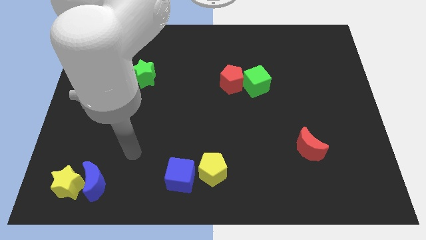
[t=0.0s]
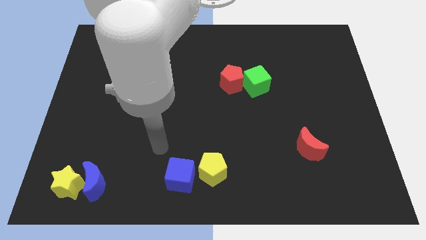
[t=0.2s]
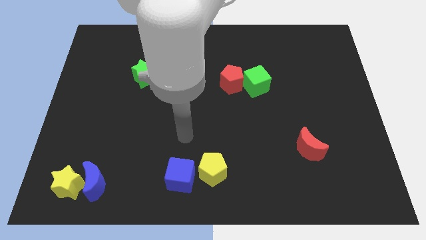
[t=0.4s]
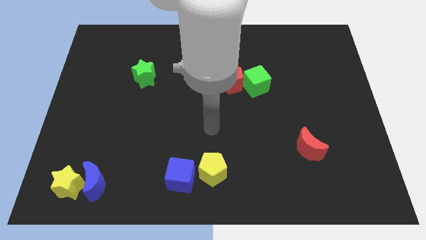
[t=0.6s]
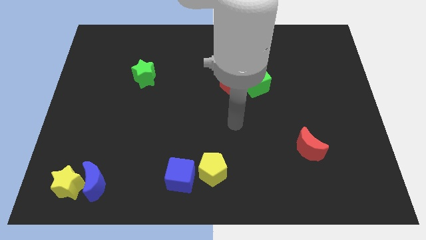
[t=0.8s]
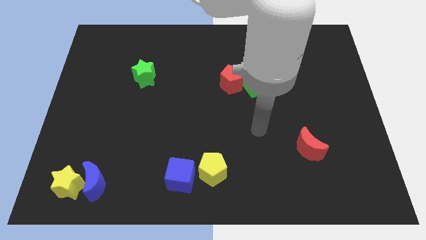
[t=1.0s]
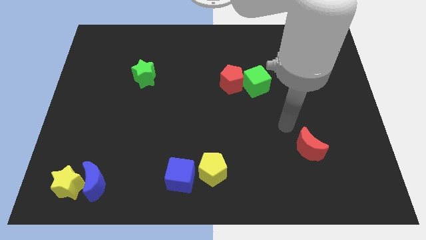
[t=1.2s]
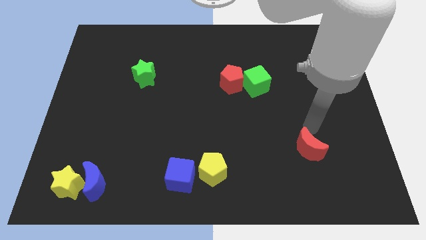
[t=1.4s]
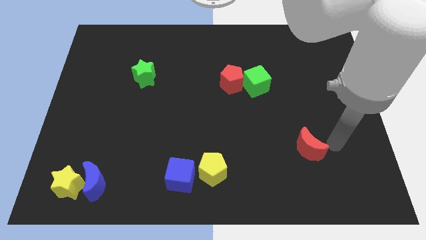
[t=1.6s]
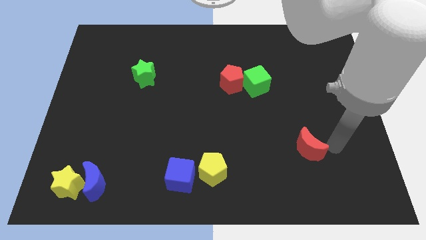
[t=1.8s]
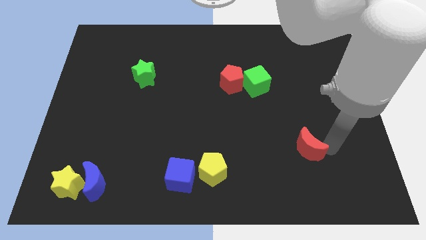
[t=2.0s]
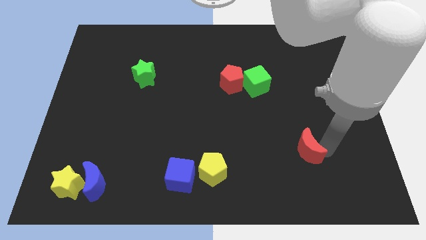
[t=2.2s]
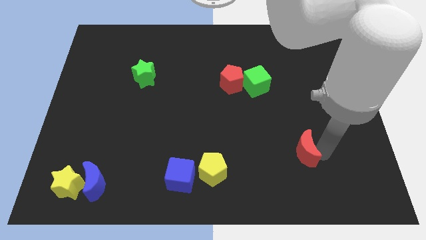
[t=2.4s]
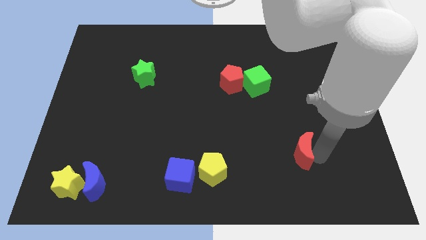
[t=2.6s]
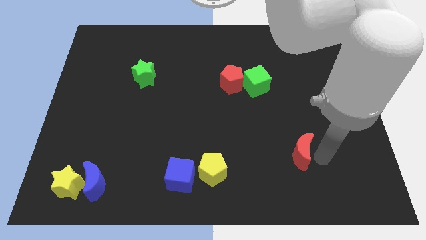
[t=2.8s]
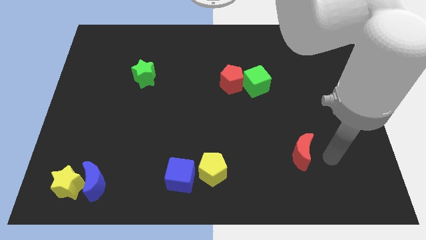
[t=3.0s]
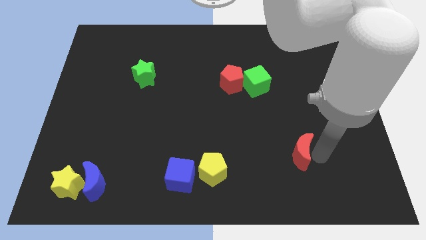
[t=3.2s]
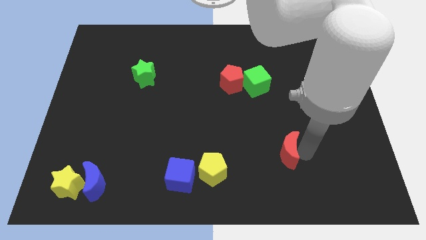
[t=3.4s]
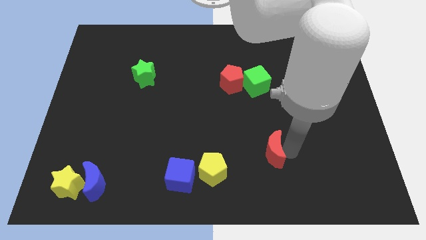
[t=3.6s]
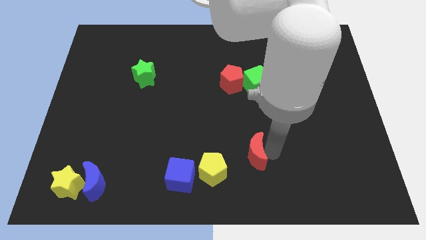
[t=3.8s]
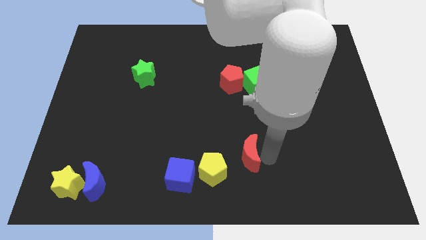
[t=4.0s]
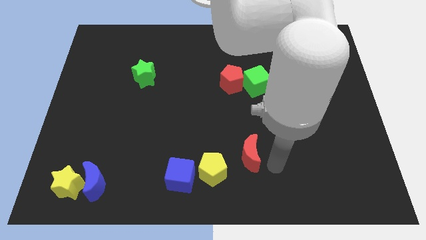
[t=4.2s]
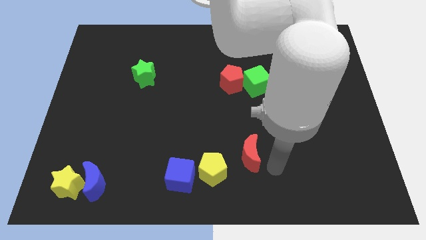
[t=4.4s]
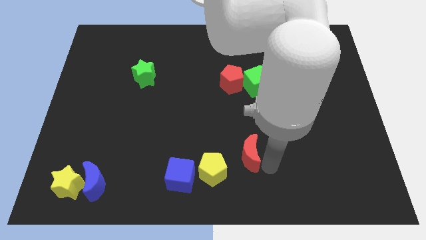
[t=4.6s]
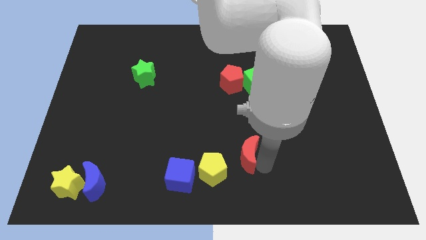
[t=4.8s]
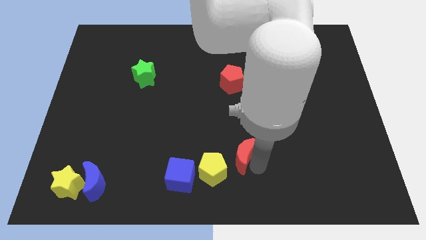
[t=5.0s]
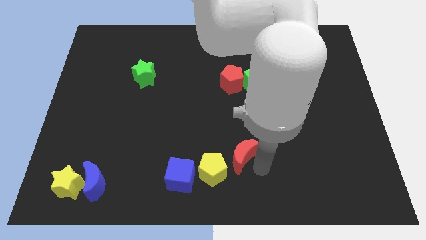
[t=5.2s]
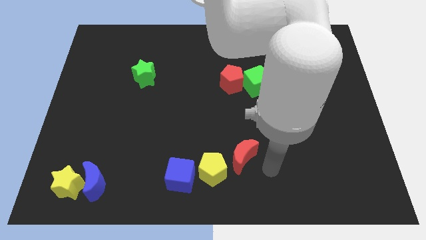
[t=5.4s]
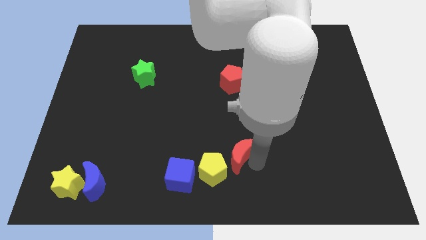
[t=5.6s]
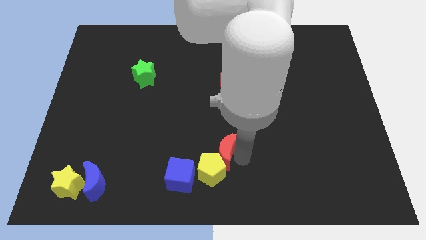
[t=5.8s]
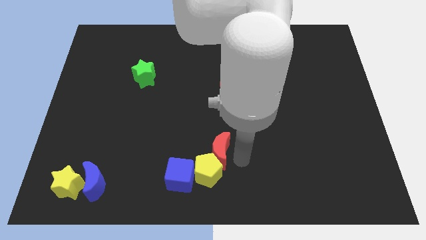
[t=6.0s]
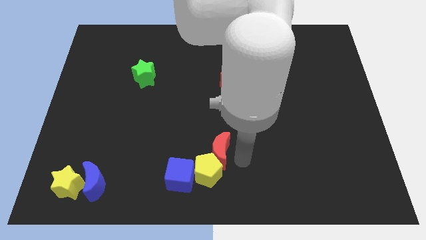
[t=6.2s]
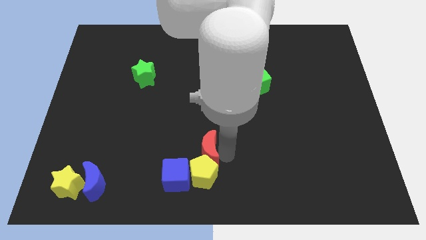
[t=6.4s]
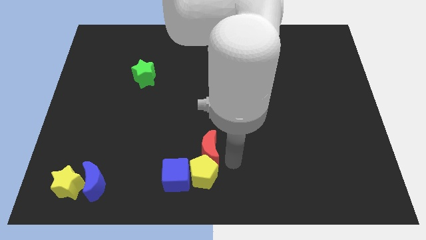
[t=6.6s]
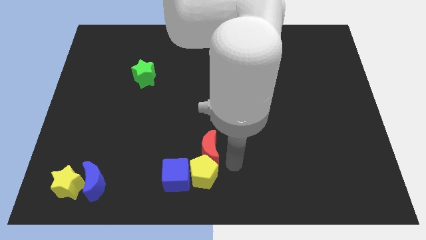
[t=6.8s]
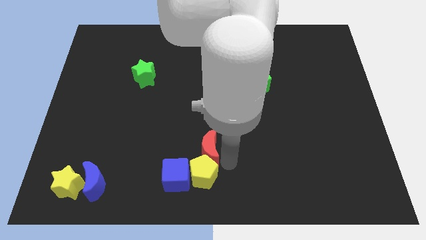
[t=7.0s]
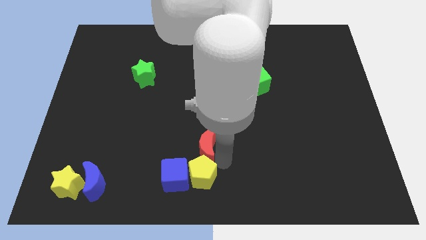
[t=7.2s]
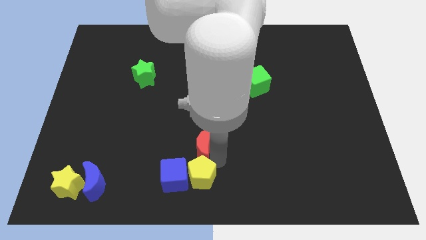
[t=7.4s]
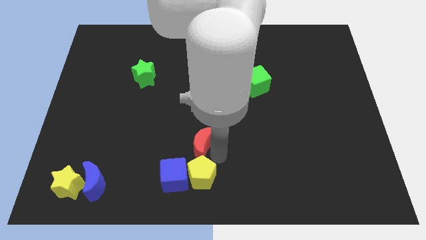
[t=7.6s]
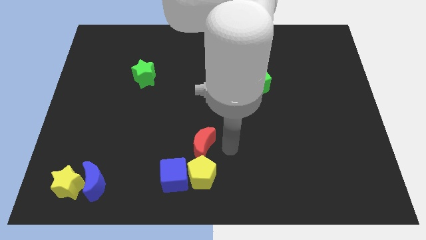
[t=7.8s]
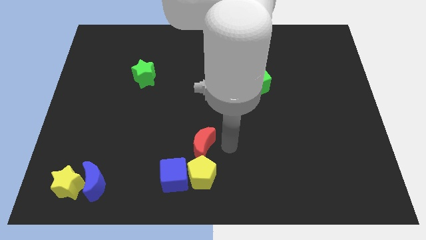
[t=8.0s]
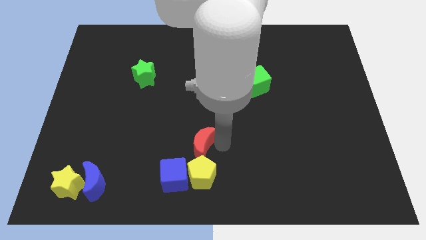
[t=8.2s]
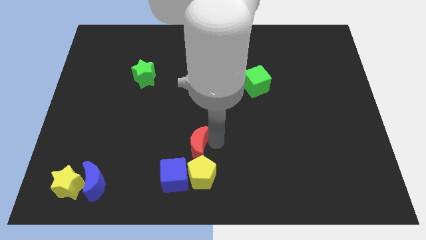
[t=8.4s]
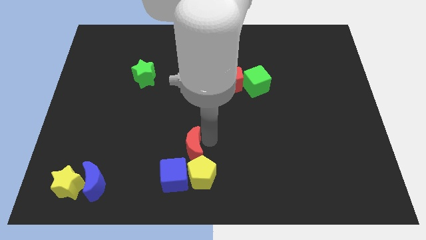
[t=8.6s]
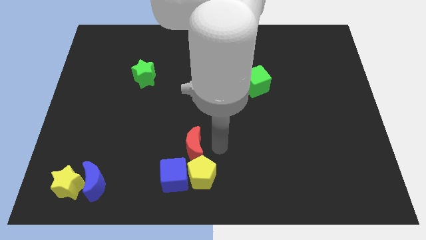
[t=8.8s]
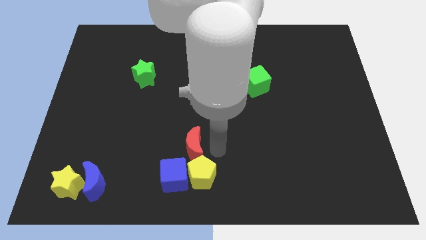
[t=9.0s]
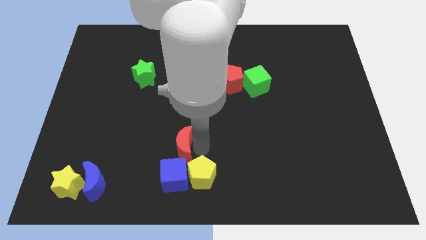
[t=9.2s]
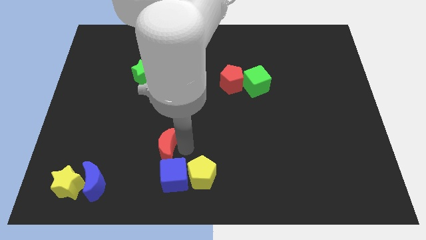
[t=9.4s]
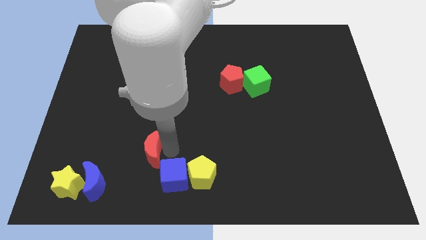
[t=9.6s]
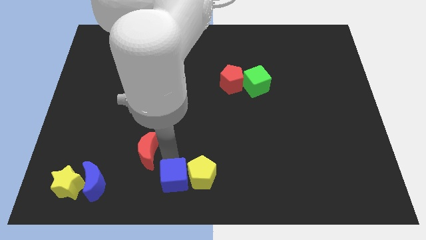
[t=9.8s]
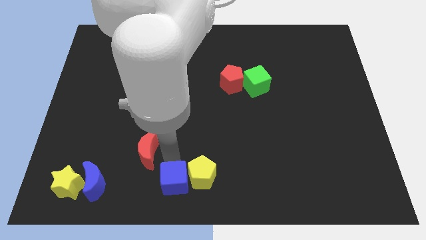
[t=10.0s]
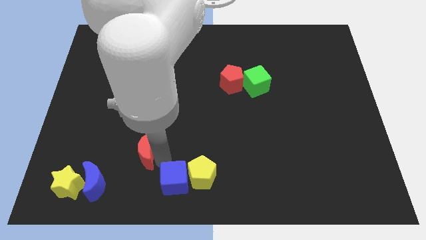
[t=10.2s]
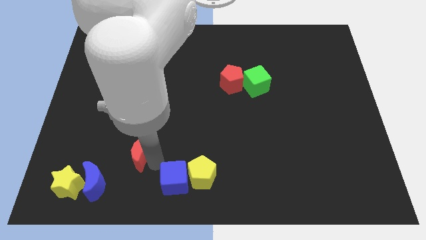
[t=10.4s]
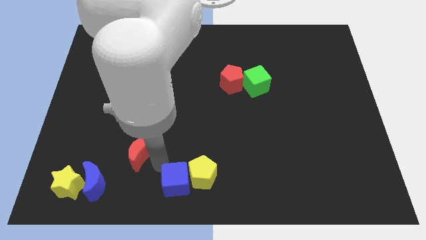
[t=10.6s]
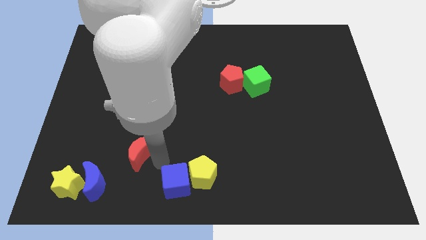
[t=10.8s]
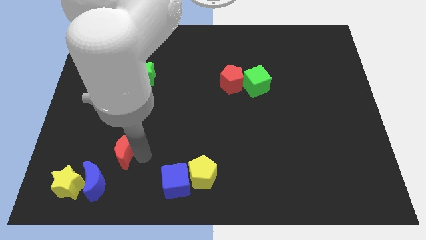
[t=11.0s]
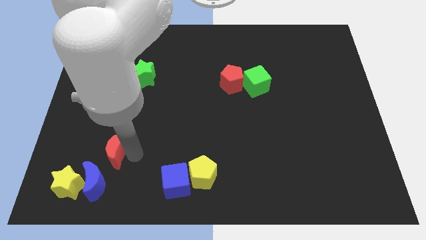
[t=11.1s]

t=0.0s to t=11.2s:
put the red moon above the blue moon

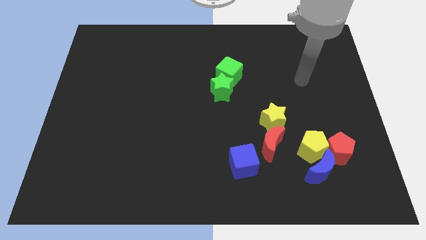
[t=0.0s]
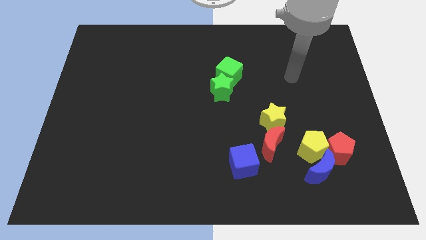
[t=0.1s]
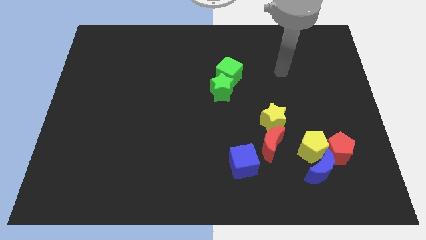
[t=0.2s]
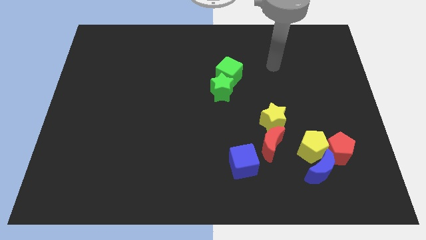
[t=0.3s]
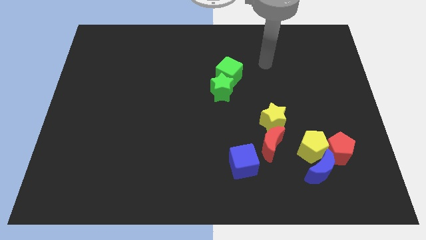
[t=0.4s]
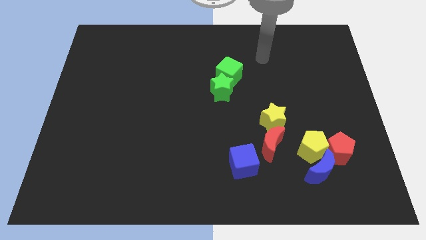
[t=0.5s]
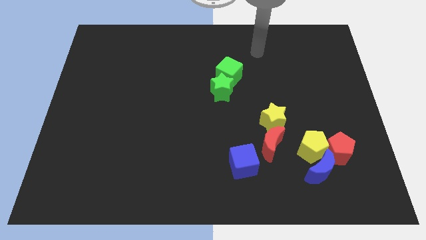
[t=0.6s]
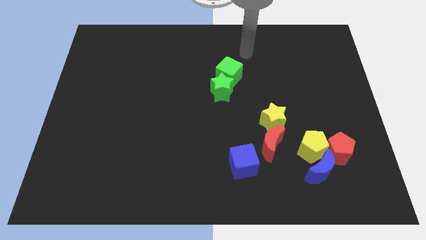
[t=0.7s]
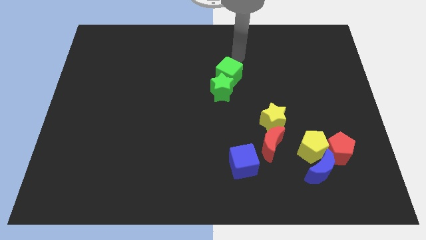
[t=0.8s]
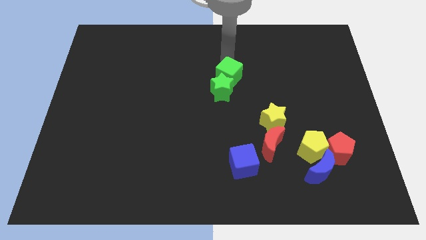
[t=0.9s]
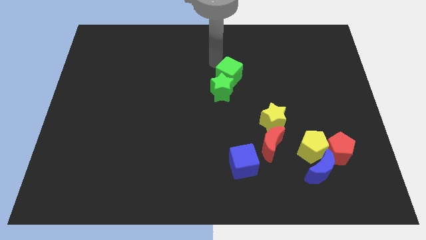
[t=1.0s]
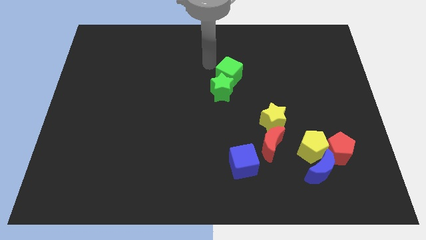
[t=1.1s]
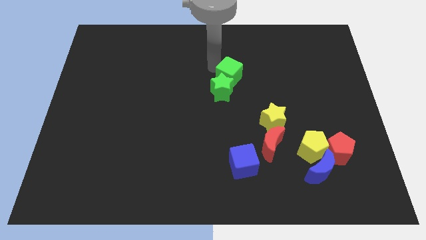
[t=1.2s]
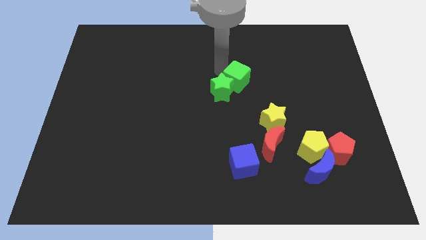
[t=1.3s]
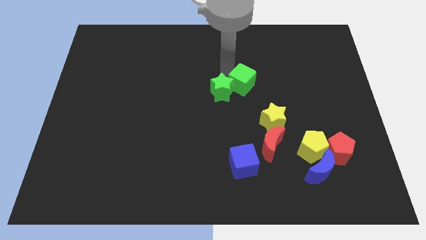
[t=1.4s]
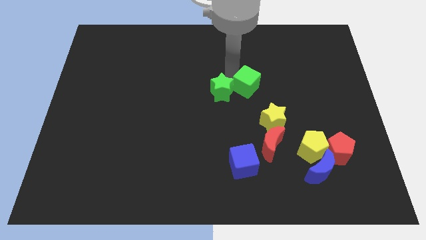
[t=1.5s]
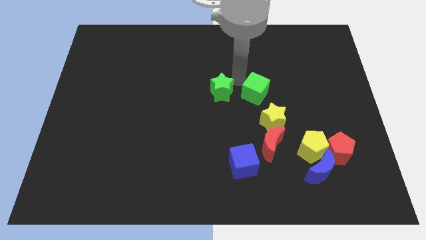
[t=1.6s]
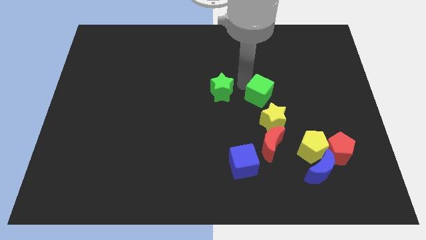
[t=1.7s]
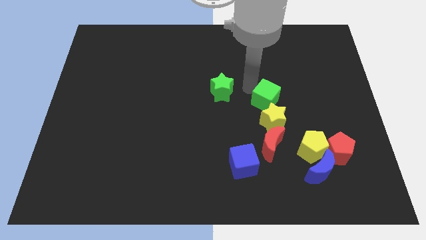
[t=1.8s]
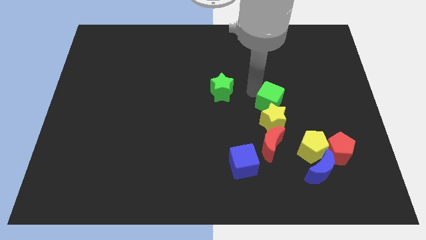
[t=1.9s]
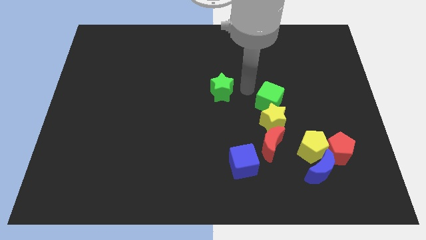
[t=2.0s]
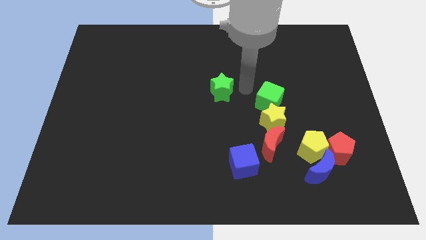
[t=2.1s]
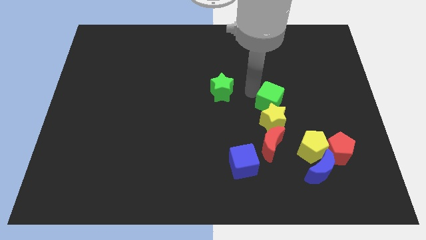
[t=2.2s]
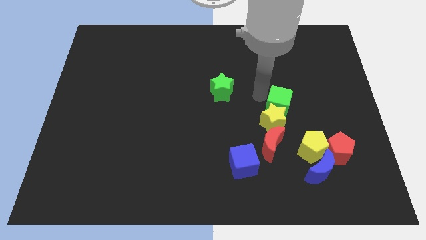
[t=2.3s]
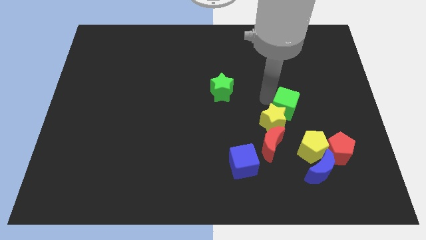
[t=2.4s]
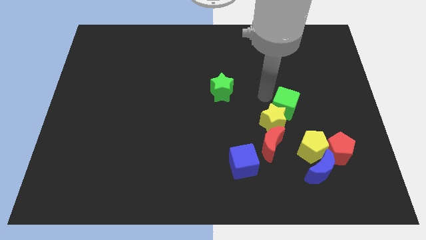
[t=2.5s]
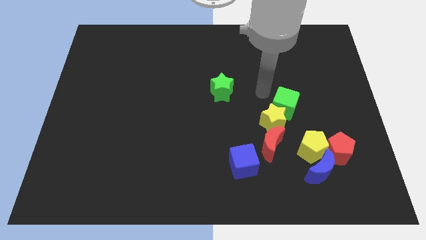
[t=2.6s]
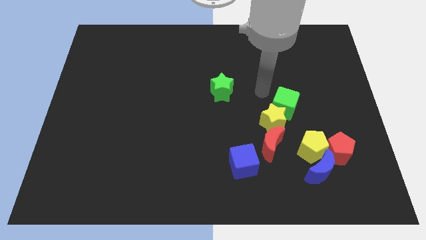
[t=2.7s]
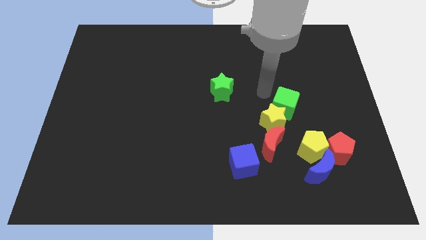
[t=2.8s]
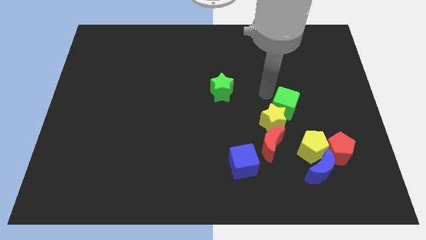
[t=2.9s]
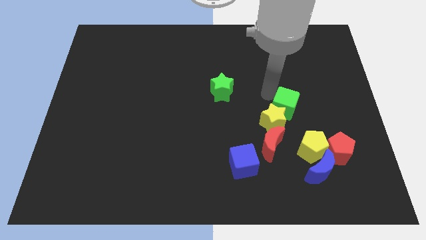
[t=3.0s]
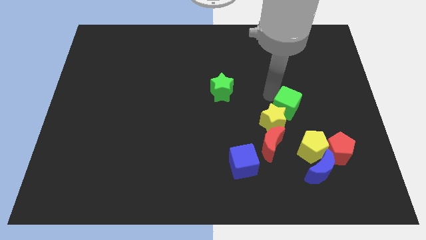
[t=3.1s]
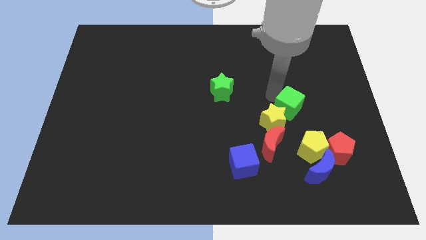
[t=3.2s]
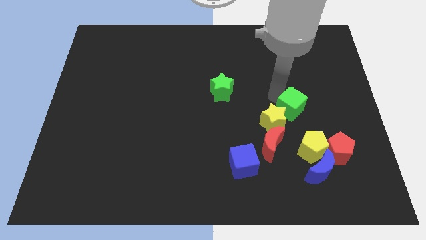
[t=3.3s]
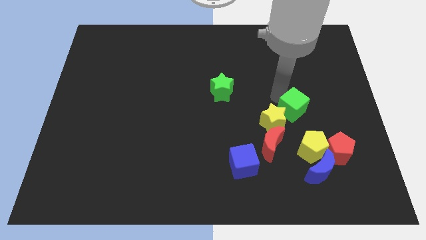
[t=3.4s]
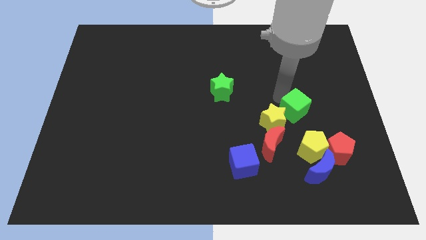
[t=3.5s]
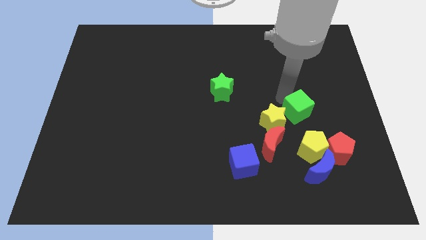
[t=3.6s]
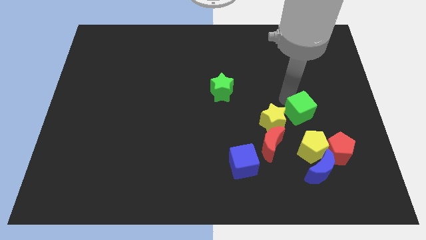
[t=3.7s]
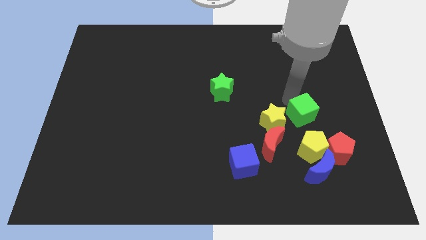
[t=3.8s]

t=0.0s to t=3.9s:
slide the green cube diagonally up and to the left of the red pentagon
